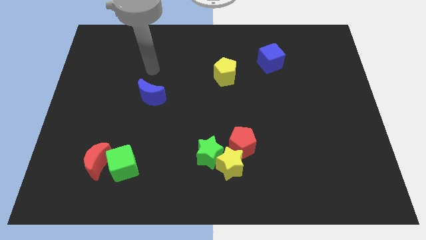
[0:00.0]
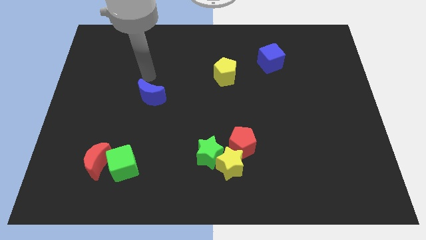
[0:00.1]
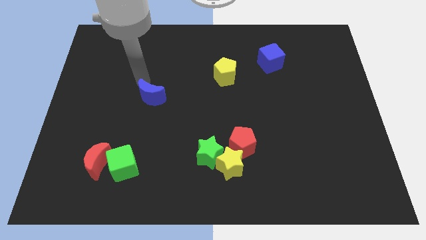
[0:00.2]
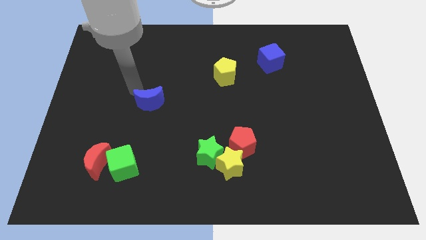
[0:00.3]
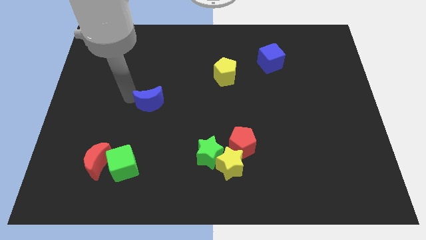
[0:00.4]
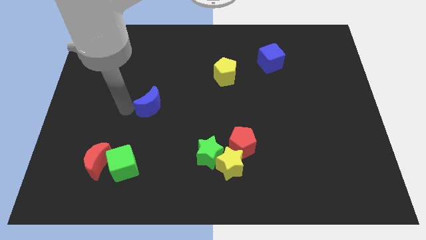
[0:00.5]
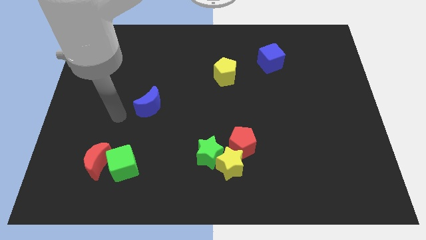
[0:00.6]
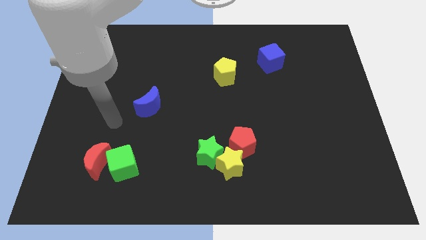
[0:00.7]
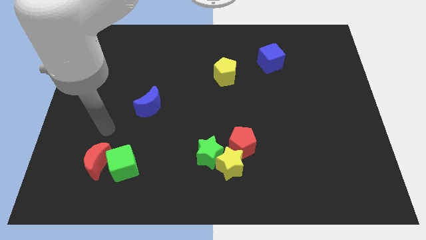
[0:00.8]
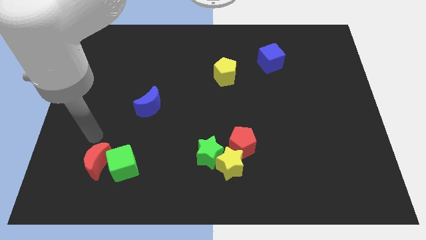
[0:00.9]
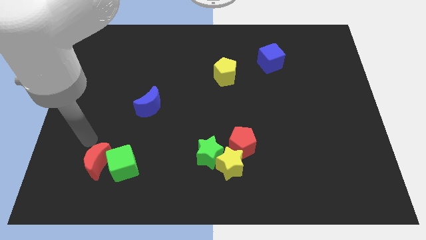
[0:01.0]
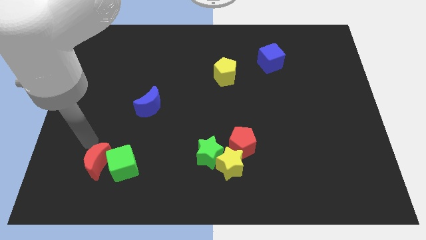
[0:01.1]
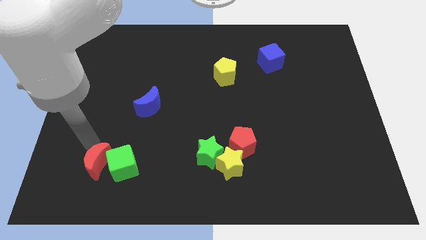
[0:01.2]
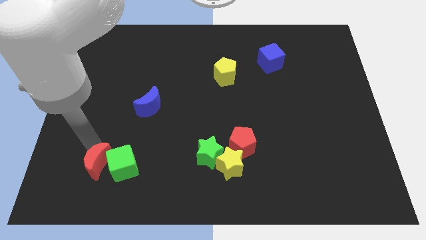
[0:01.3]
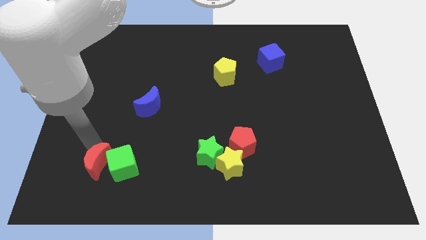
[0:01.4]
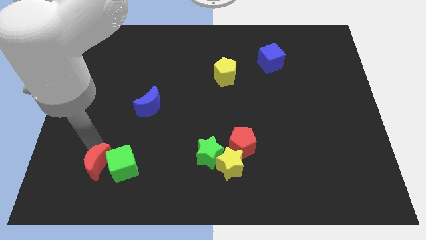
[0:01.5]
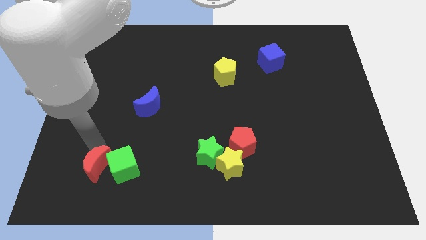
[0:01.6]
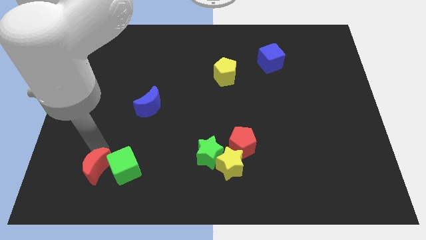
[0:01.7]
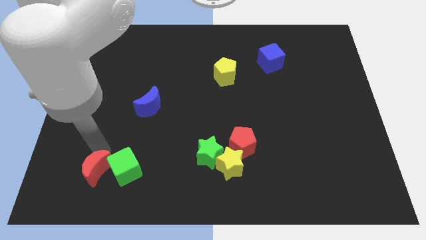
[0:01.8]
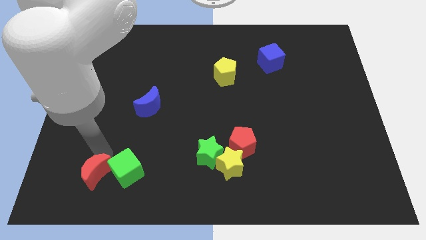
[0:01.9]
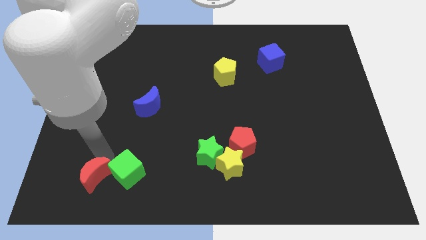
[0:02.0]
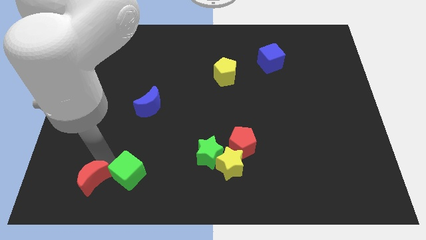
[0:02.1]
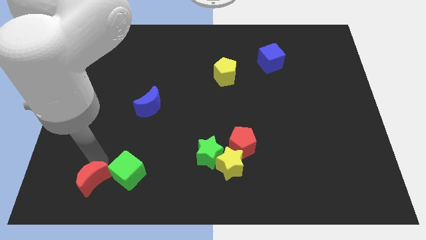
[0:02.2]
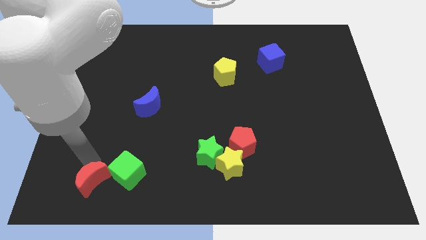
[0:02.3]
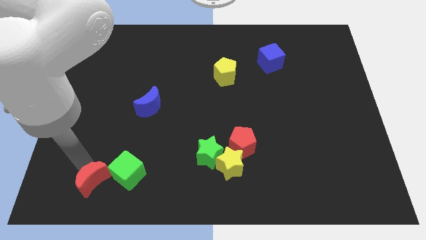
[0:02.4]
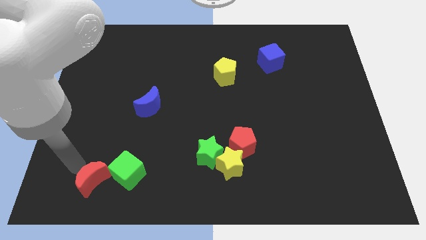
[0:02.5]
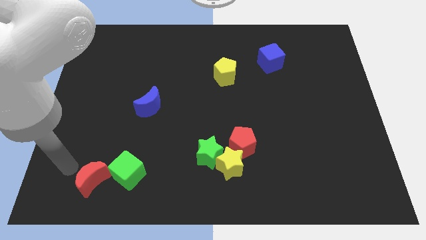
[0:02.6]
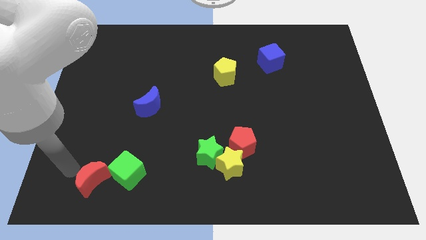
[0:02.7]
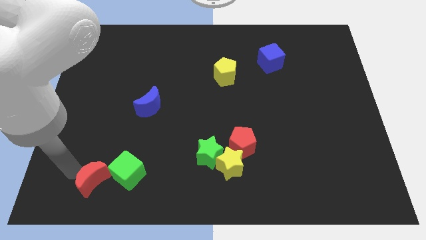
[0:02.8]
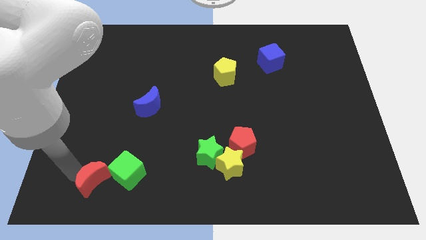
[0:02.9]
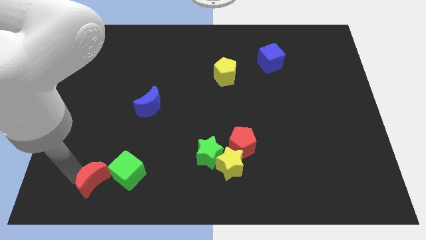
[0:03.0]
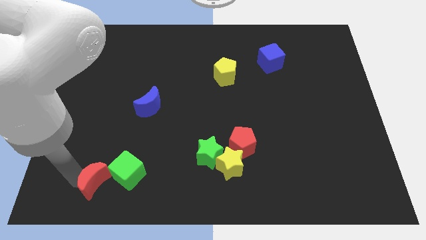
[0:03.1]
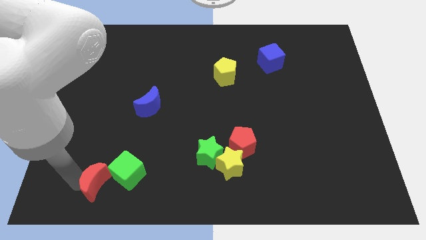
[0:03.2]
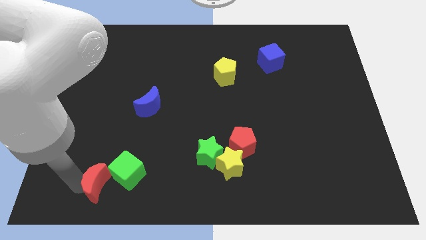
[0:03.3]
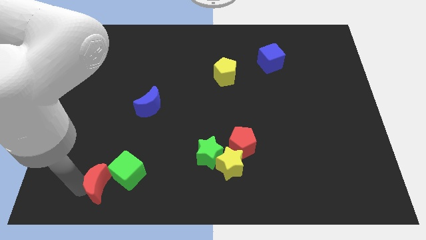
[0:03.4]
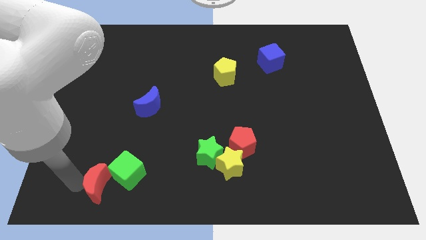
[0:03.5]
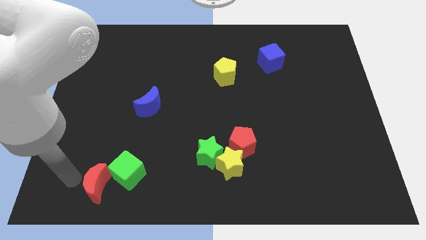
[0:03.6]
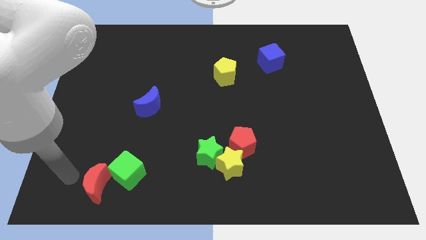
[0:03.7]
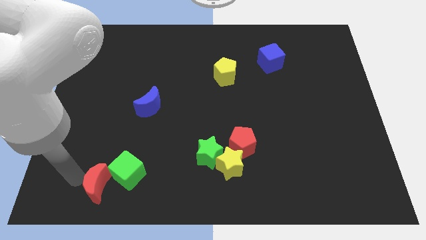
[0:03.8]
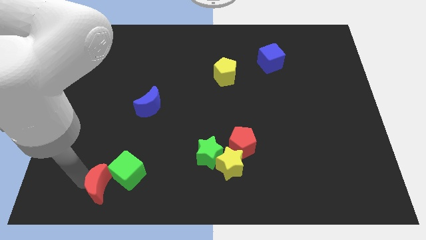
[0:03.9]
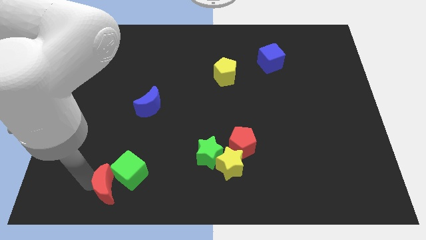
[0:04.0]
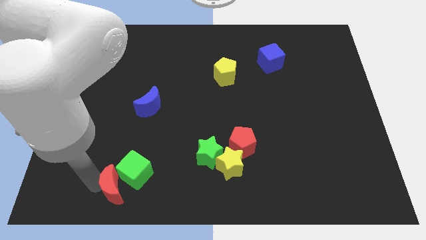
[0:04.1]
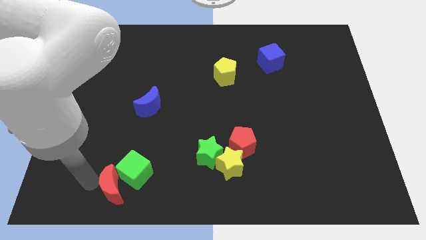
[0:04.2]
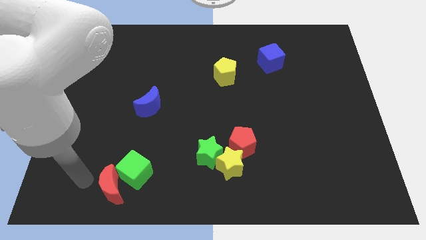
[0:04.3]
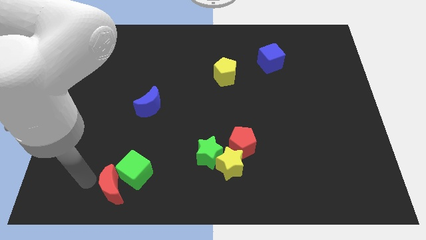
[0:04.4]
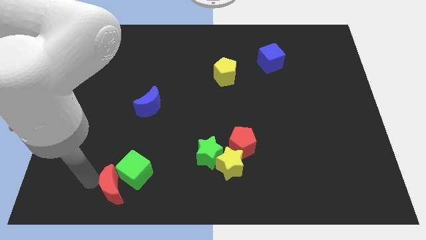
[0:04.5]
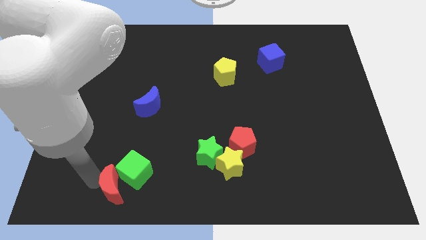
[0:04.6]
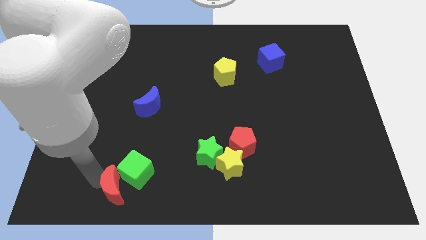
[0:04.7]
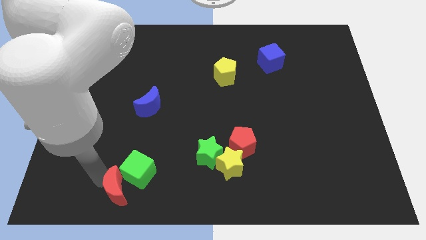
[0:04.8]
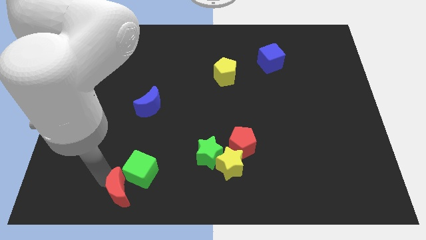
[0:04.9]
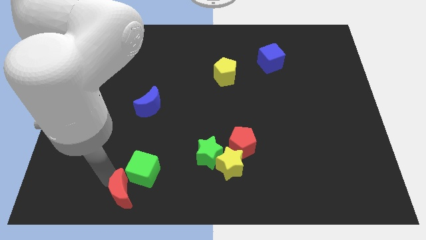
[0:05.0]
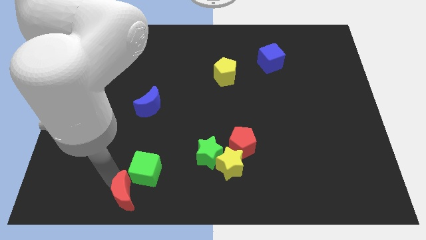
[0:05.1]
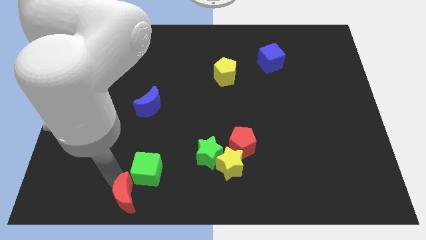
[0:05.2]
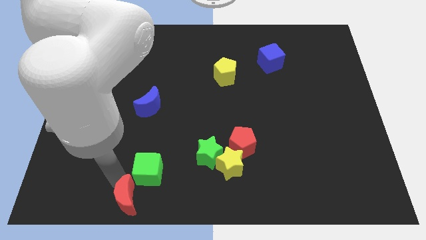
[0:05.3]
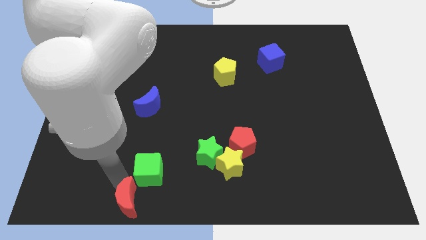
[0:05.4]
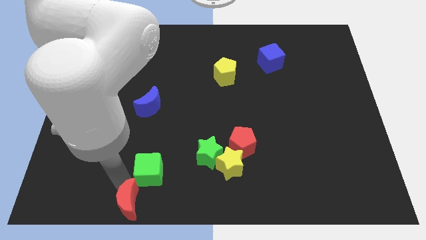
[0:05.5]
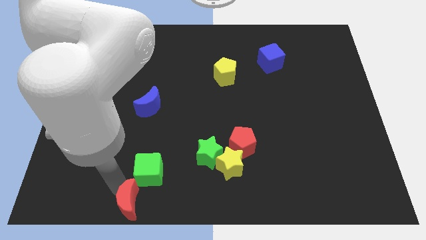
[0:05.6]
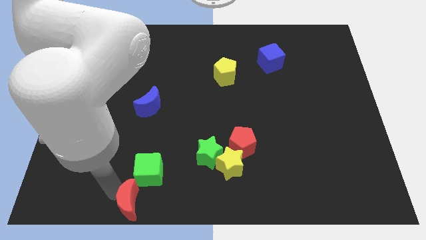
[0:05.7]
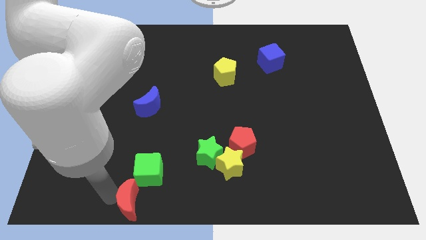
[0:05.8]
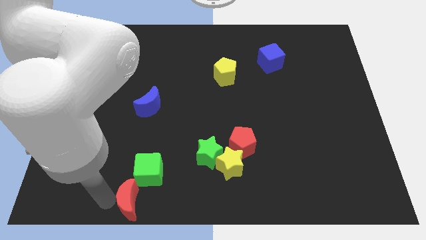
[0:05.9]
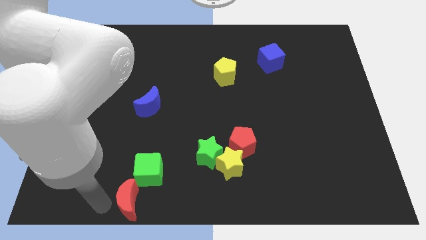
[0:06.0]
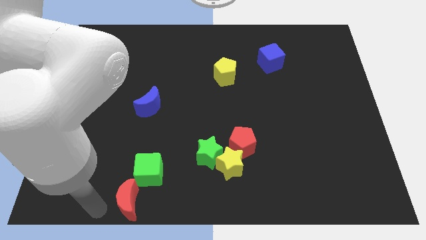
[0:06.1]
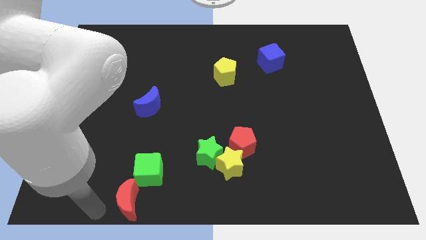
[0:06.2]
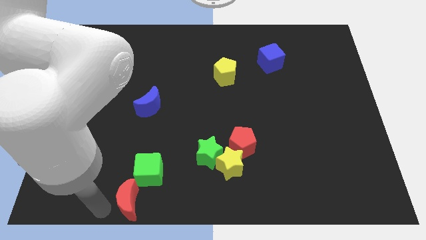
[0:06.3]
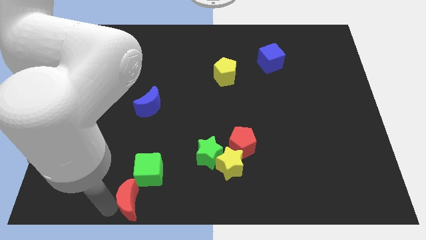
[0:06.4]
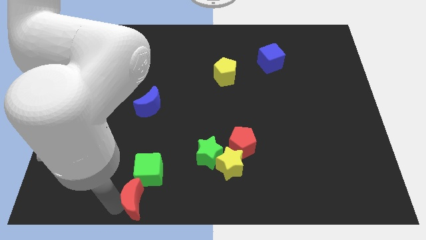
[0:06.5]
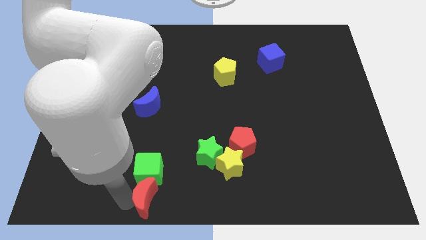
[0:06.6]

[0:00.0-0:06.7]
put the red moon to the bottom side

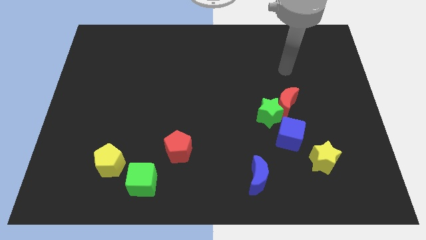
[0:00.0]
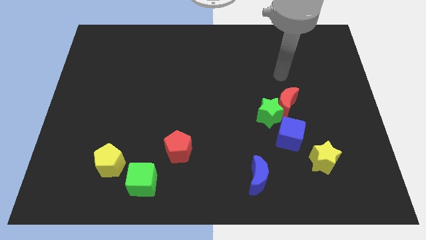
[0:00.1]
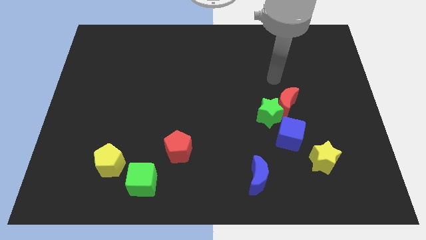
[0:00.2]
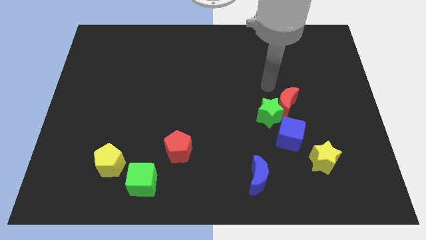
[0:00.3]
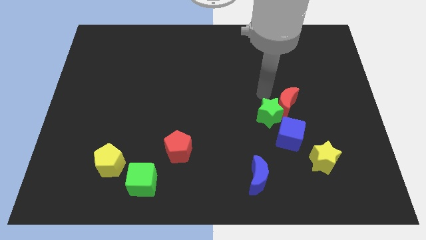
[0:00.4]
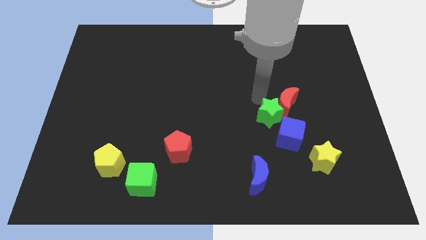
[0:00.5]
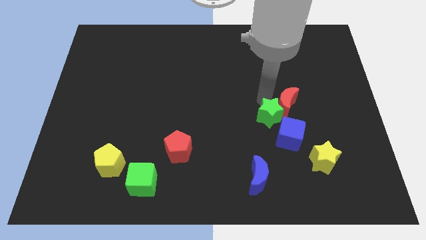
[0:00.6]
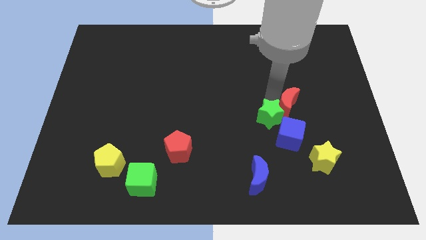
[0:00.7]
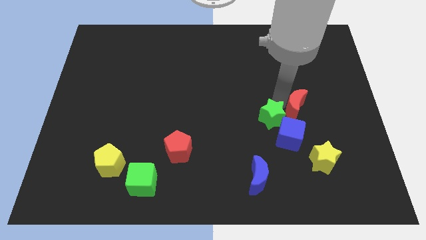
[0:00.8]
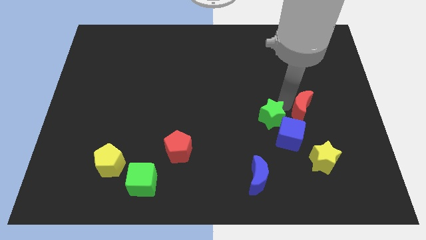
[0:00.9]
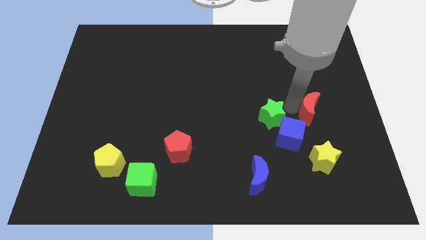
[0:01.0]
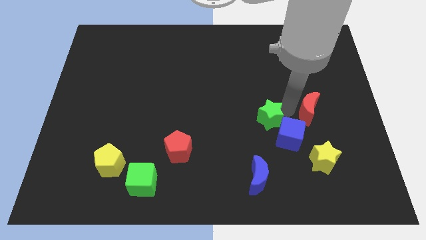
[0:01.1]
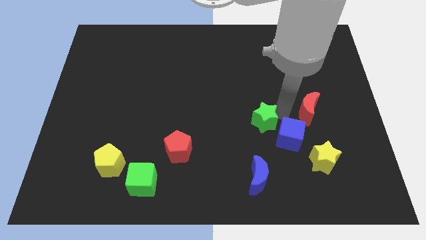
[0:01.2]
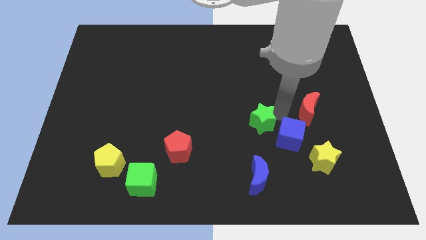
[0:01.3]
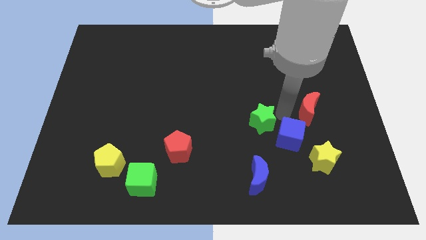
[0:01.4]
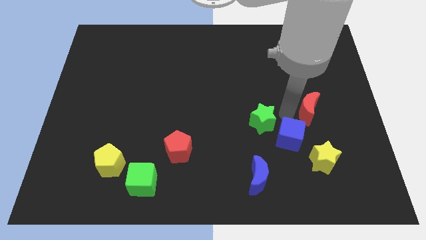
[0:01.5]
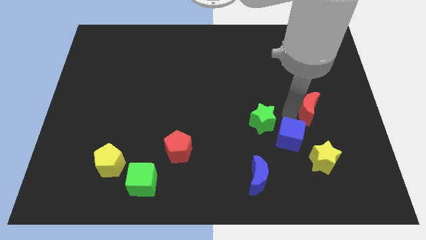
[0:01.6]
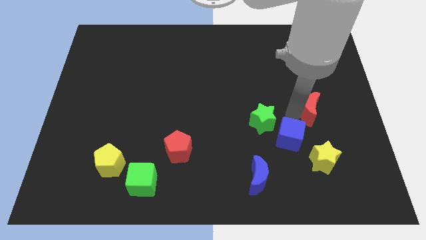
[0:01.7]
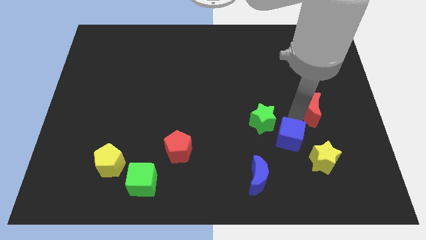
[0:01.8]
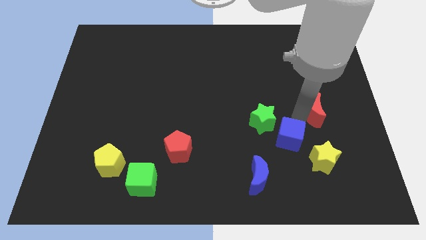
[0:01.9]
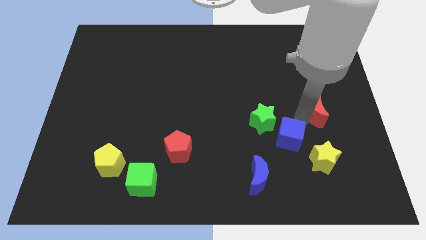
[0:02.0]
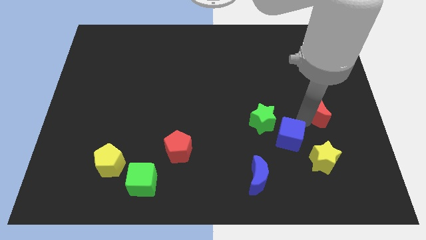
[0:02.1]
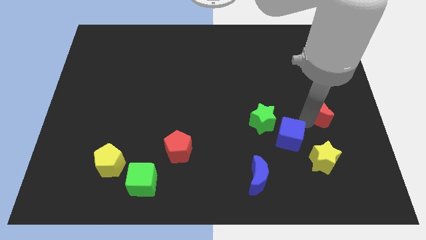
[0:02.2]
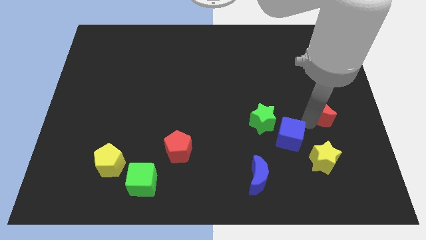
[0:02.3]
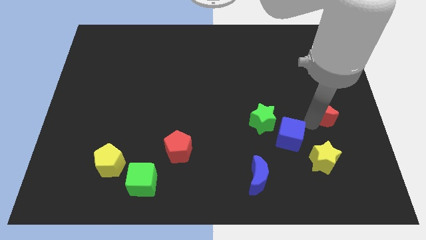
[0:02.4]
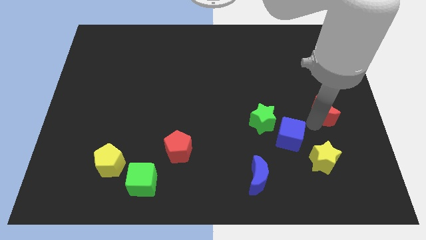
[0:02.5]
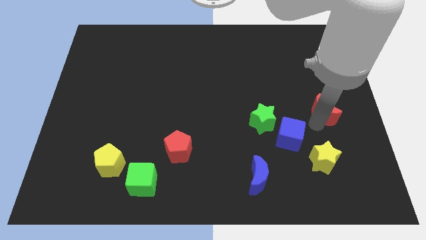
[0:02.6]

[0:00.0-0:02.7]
move the red moon to the right side of the board
